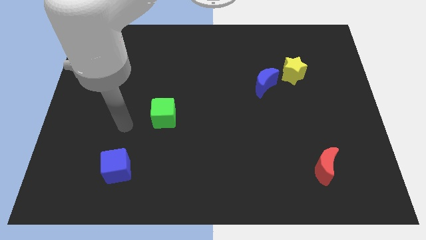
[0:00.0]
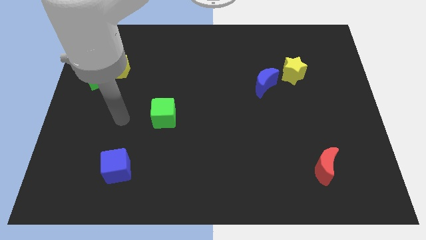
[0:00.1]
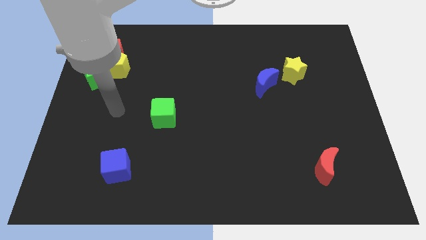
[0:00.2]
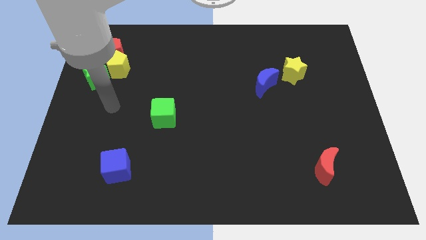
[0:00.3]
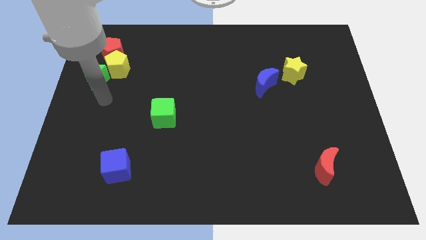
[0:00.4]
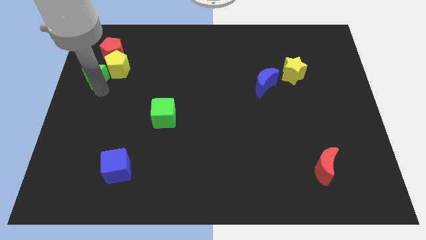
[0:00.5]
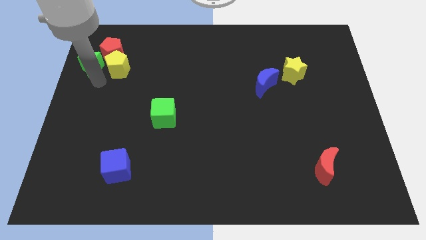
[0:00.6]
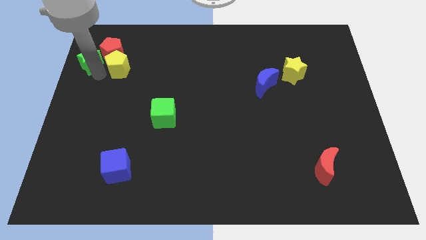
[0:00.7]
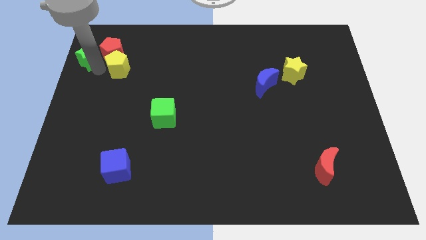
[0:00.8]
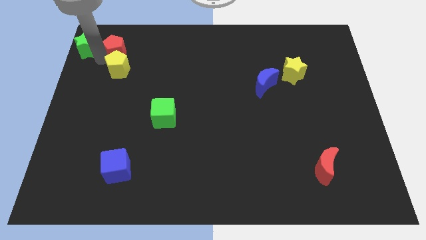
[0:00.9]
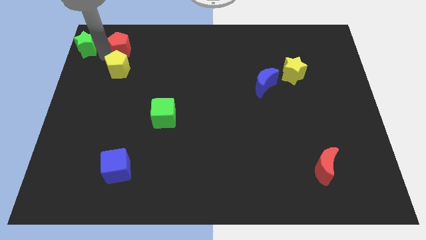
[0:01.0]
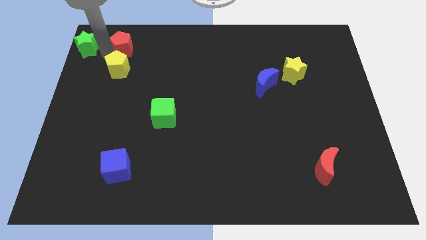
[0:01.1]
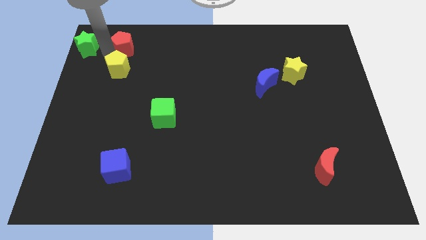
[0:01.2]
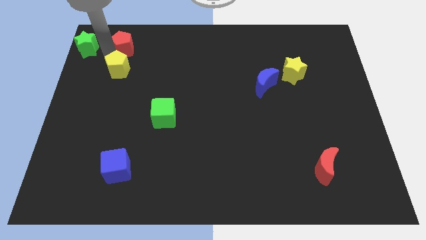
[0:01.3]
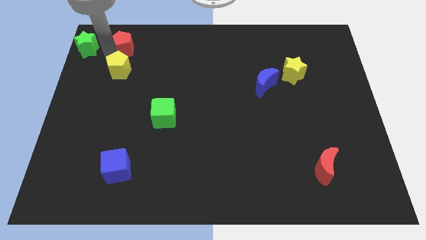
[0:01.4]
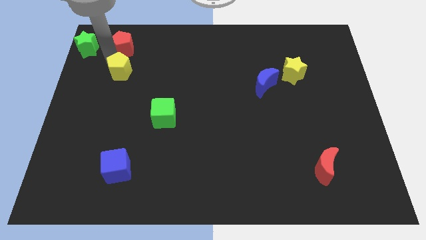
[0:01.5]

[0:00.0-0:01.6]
move the yellow pentagon away from the red pentagon and green star

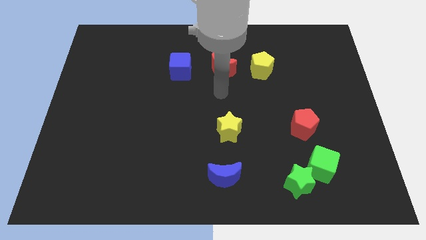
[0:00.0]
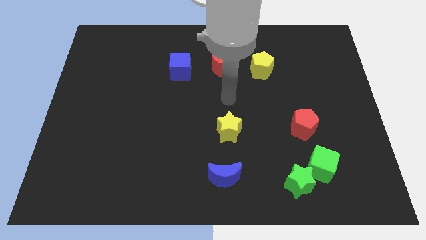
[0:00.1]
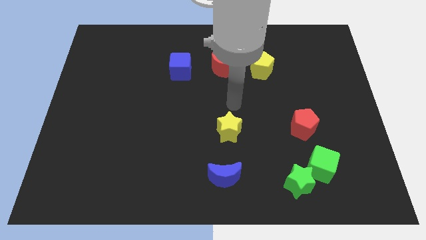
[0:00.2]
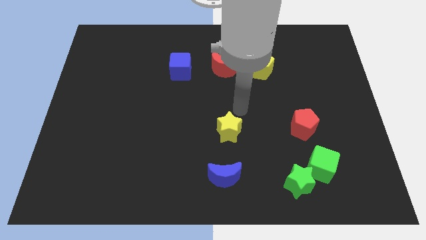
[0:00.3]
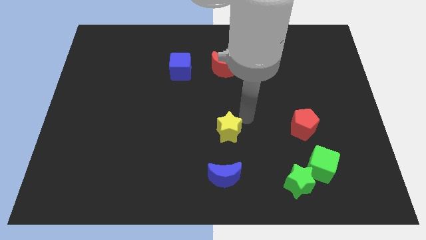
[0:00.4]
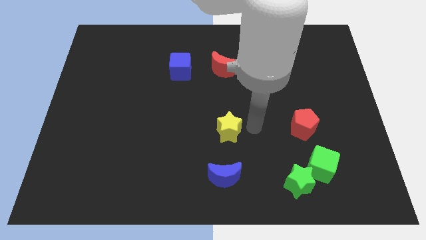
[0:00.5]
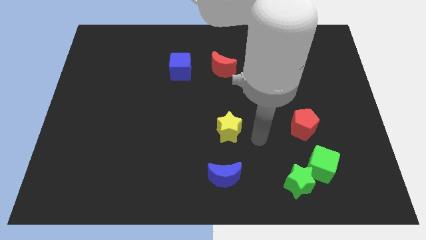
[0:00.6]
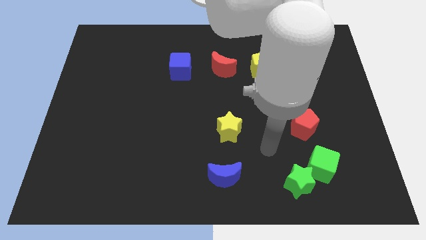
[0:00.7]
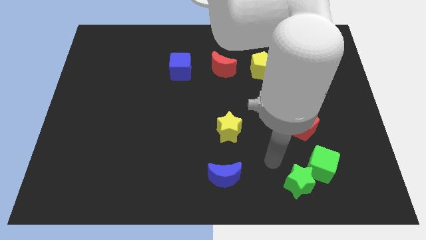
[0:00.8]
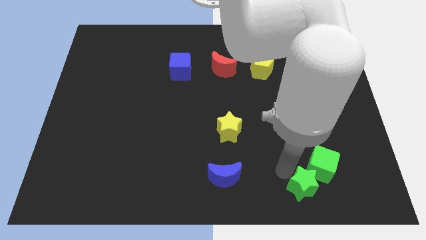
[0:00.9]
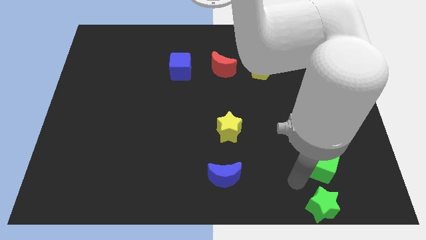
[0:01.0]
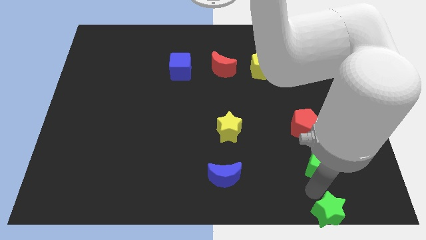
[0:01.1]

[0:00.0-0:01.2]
separate the green cube from the green star

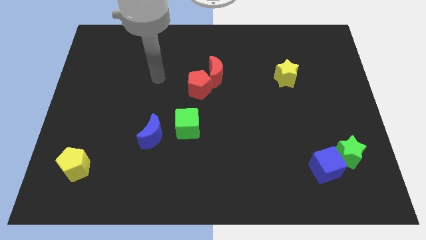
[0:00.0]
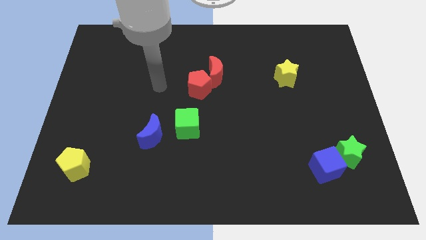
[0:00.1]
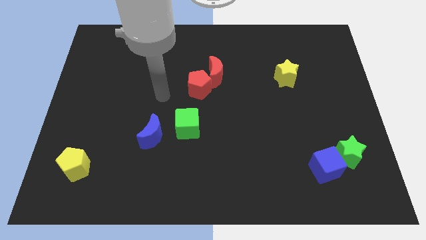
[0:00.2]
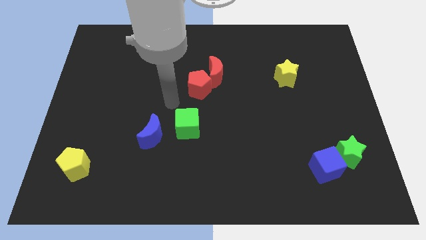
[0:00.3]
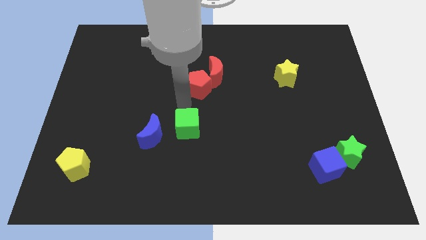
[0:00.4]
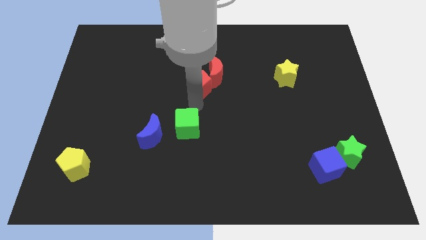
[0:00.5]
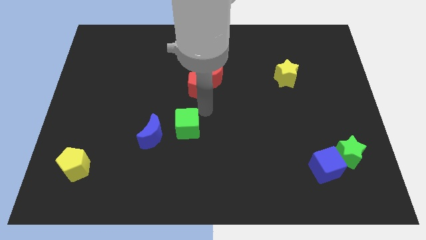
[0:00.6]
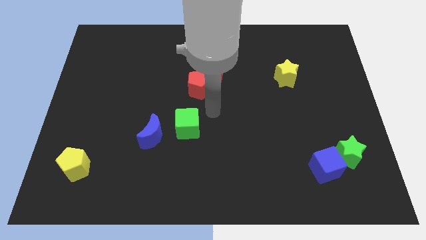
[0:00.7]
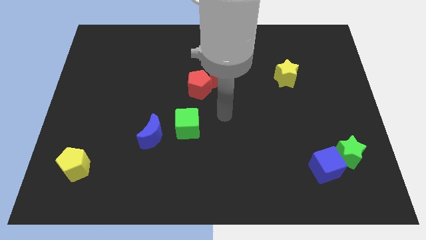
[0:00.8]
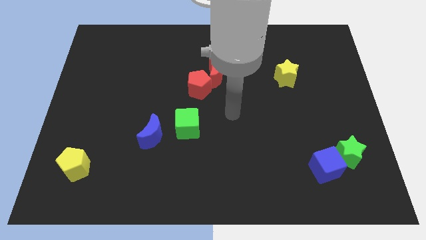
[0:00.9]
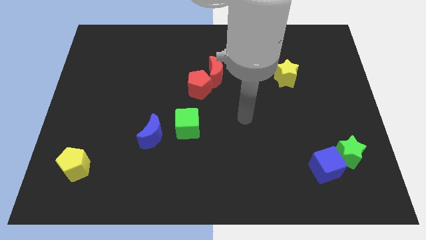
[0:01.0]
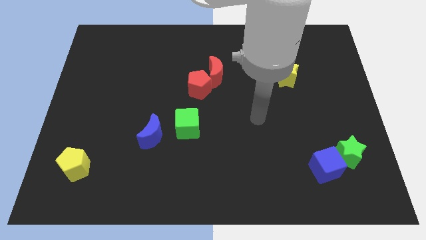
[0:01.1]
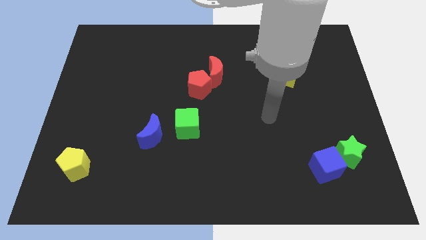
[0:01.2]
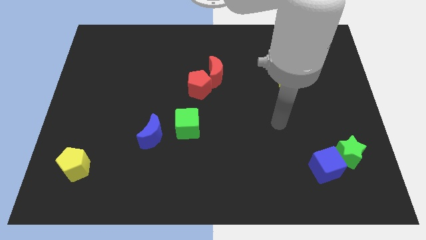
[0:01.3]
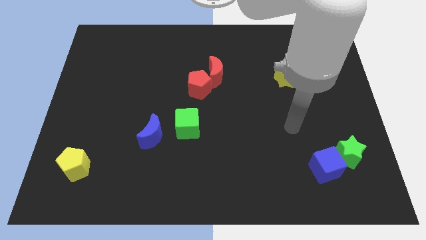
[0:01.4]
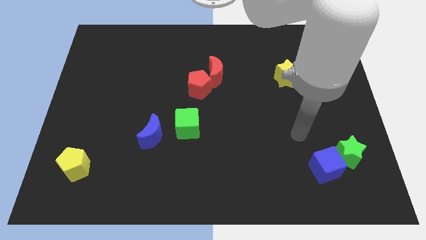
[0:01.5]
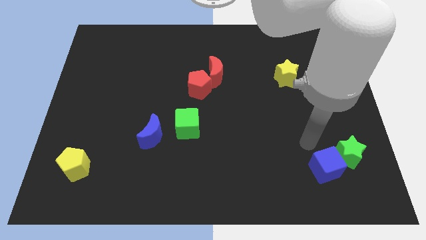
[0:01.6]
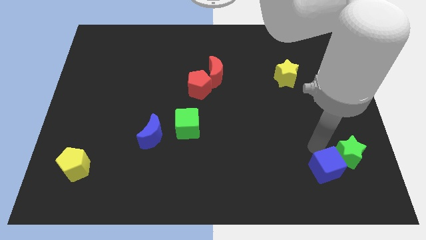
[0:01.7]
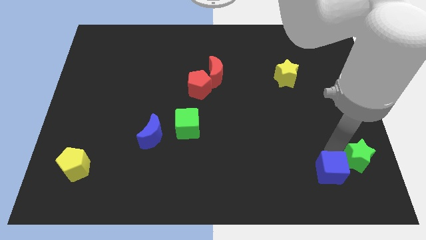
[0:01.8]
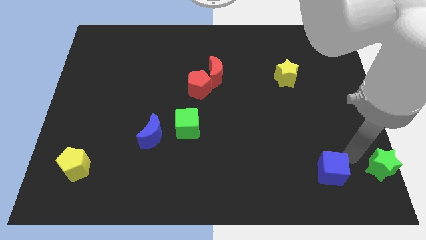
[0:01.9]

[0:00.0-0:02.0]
pull the blue cube apart from the green star

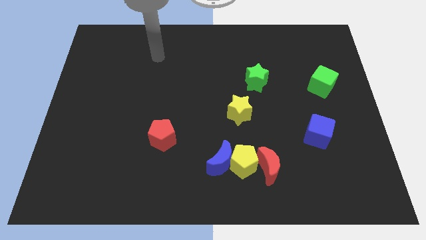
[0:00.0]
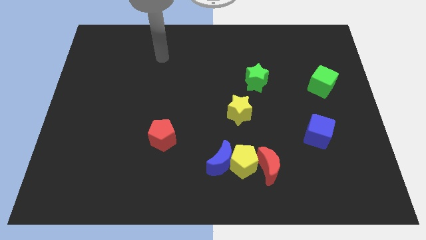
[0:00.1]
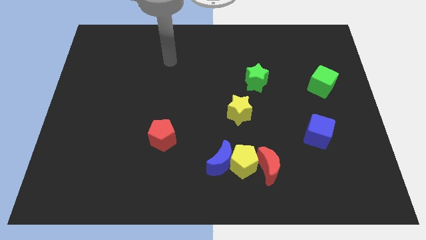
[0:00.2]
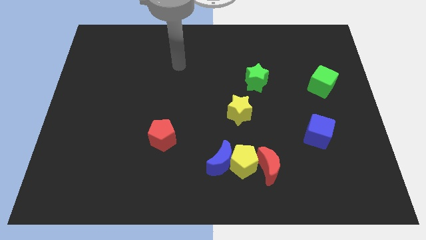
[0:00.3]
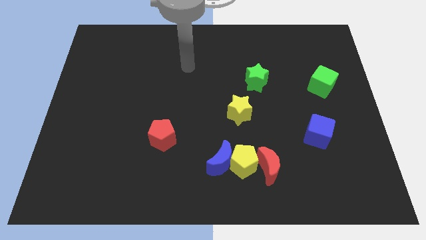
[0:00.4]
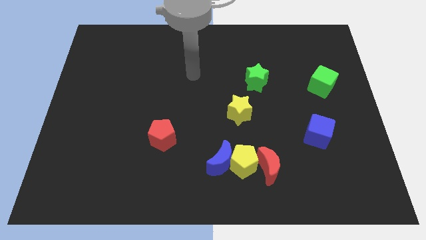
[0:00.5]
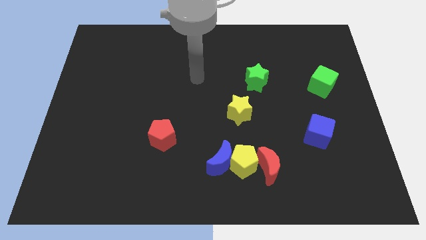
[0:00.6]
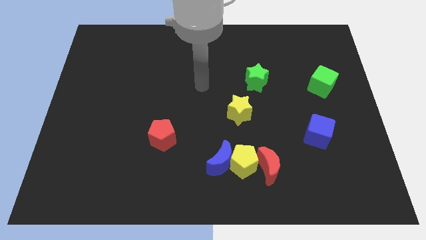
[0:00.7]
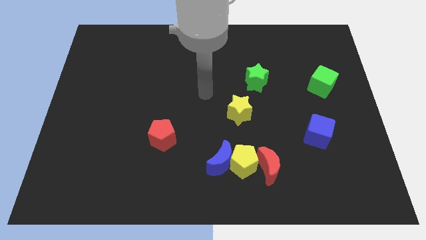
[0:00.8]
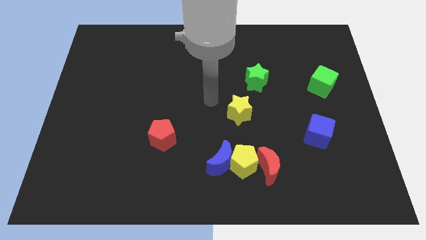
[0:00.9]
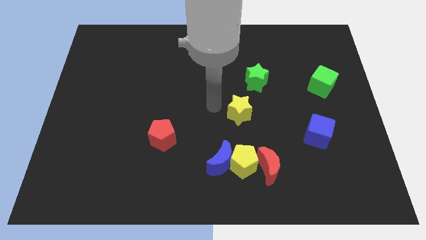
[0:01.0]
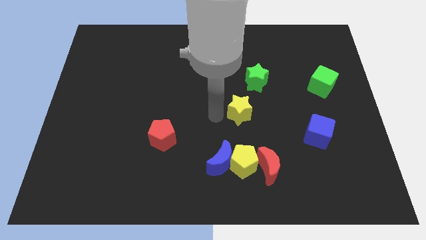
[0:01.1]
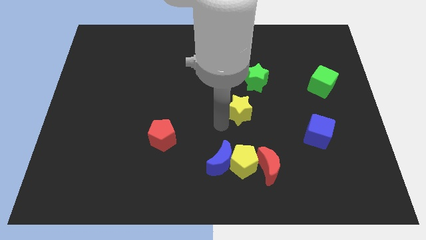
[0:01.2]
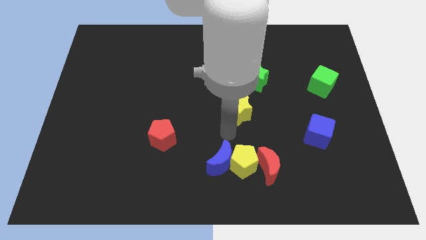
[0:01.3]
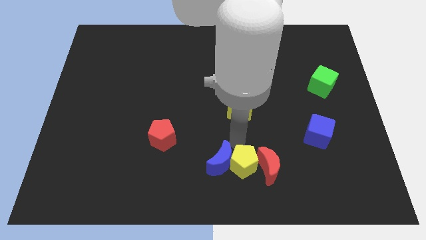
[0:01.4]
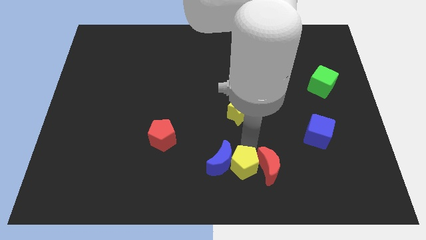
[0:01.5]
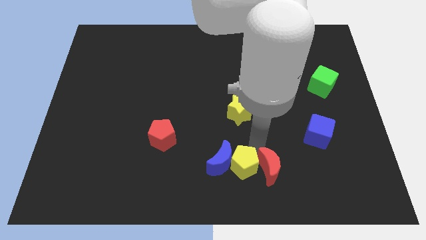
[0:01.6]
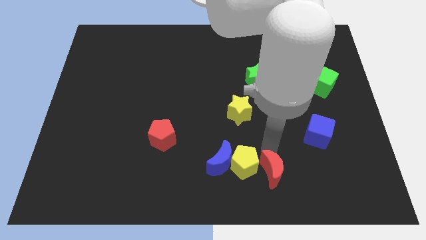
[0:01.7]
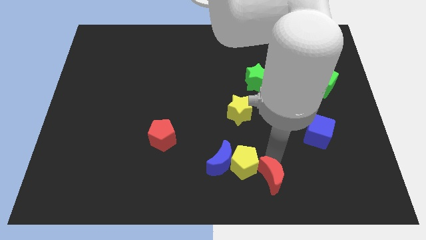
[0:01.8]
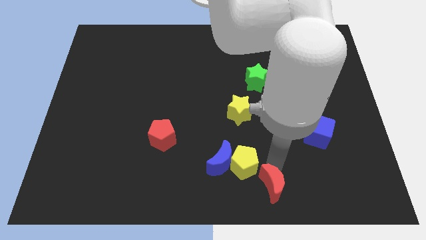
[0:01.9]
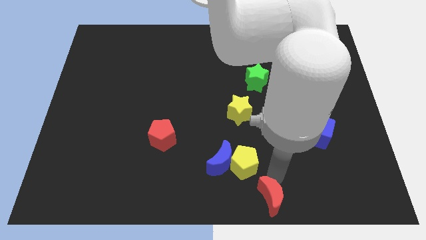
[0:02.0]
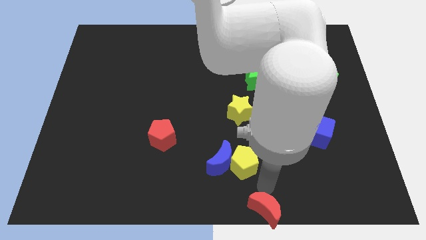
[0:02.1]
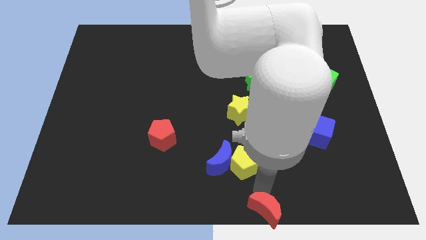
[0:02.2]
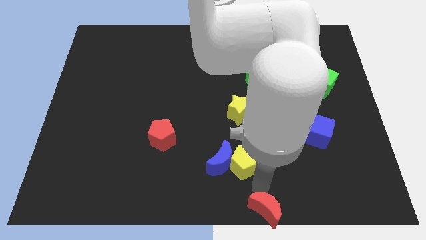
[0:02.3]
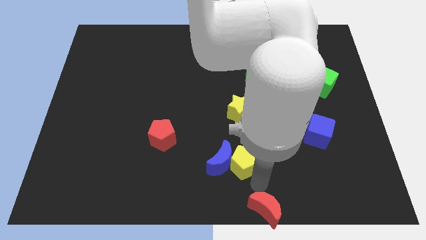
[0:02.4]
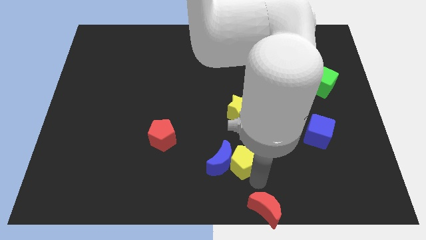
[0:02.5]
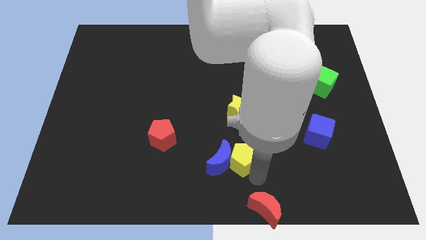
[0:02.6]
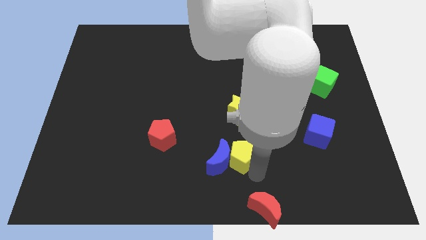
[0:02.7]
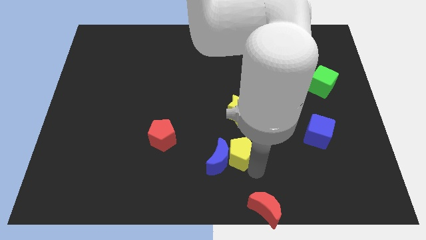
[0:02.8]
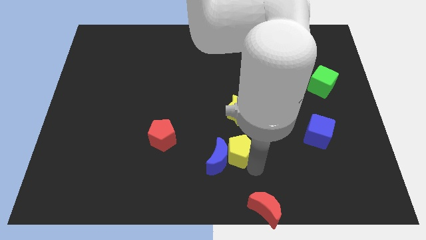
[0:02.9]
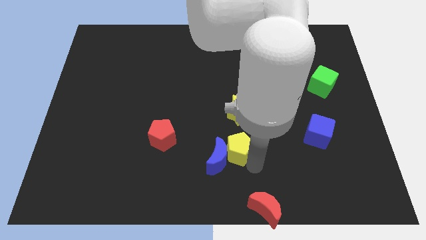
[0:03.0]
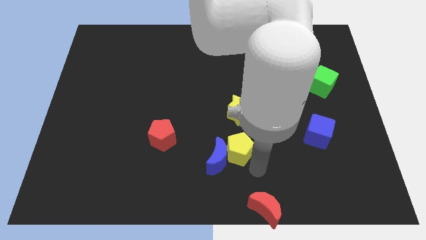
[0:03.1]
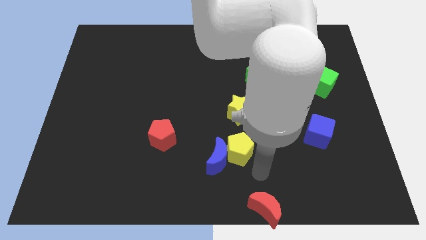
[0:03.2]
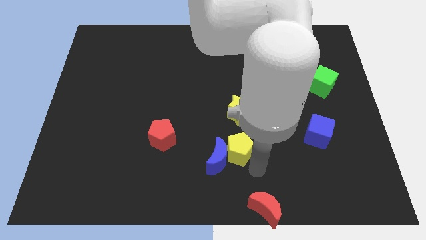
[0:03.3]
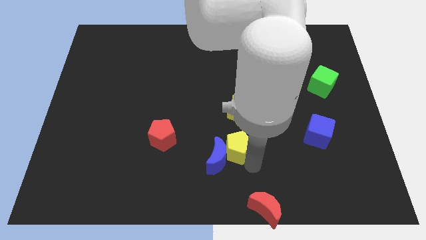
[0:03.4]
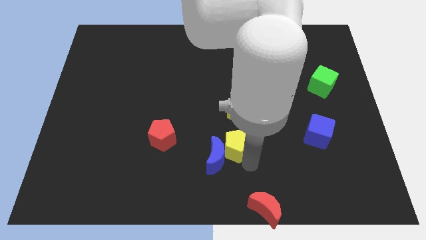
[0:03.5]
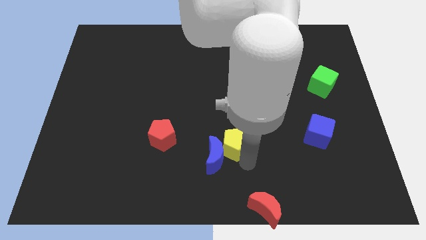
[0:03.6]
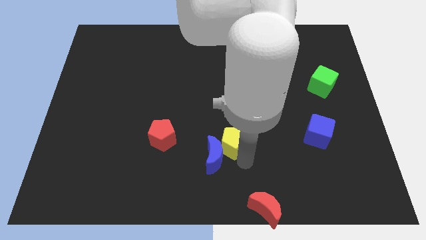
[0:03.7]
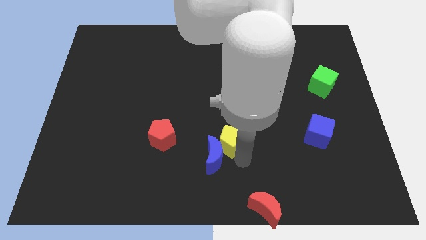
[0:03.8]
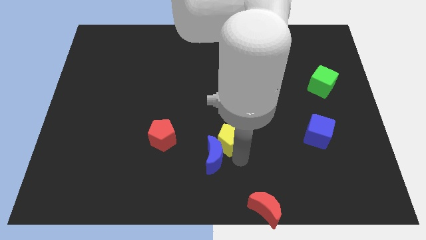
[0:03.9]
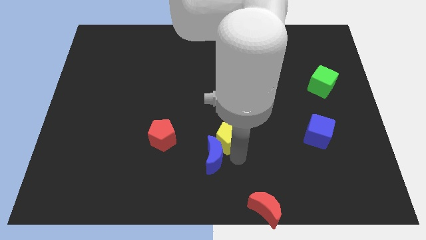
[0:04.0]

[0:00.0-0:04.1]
move the yellow pentagon away from the blue moon and red moon

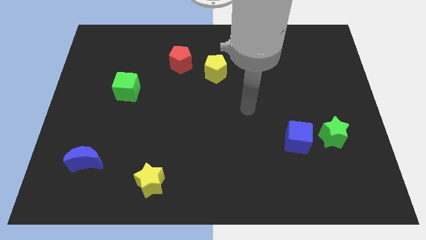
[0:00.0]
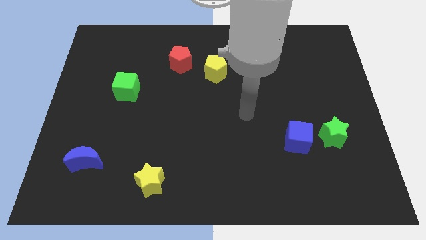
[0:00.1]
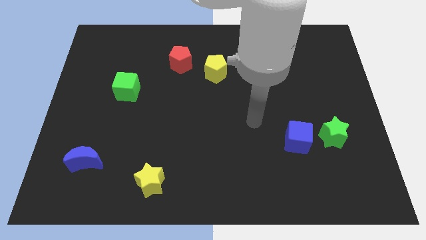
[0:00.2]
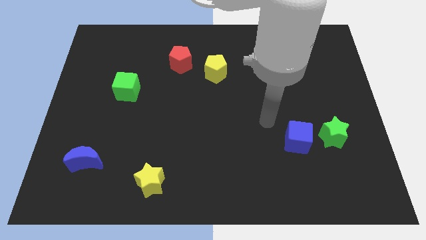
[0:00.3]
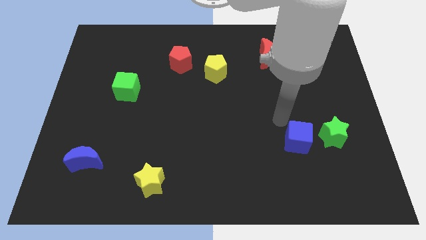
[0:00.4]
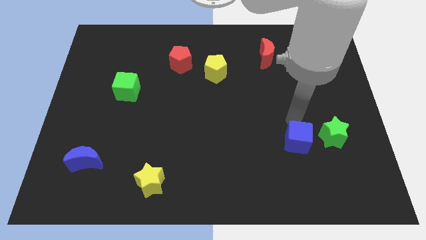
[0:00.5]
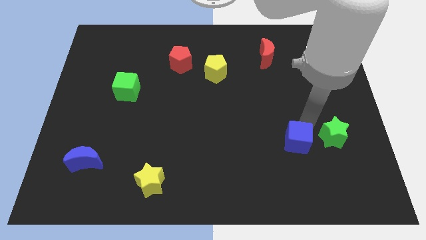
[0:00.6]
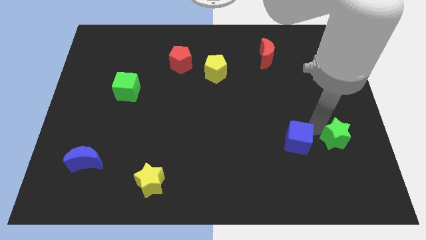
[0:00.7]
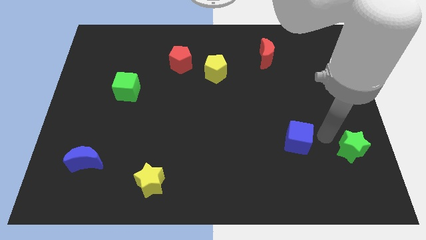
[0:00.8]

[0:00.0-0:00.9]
move the blue cube away from the green star
